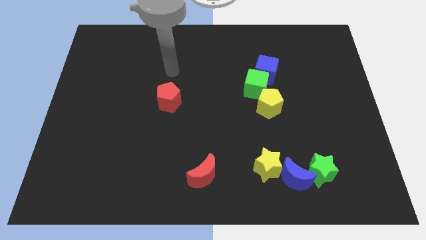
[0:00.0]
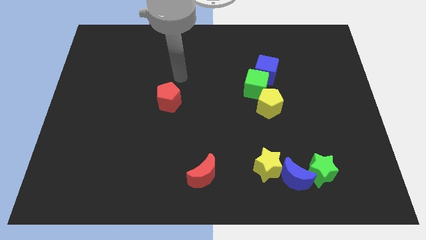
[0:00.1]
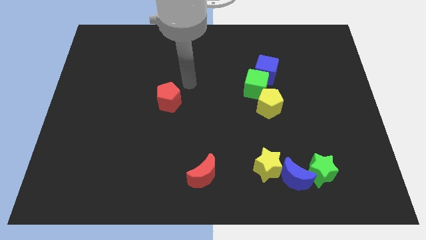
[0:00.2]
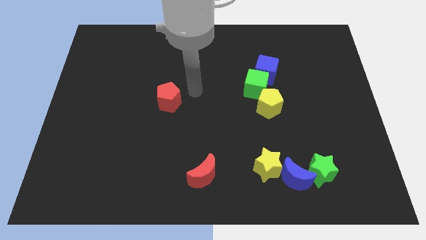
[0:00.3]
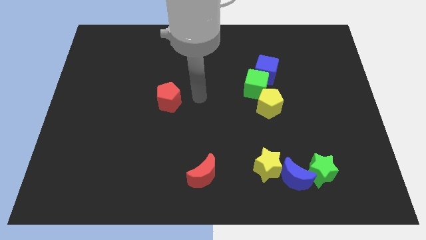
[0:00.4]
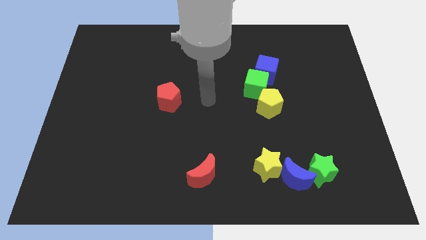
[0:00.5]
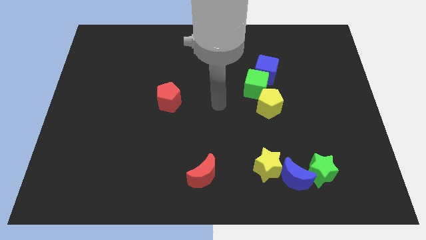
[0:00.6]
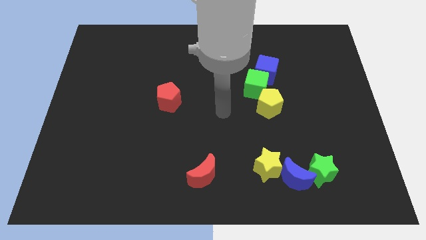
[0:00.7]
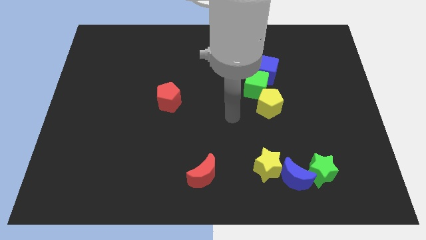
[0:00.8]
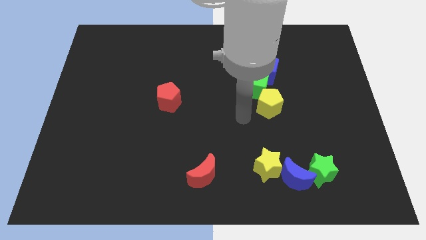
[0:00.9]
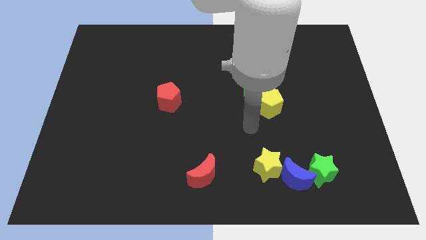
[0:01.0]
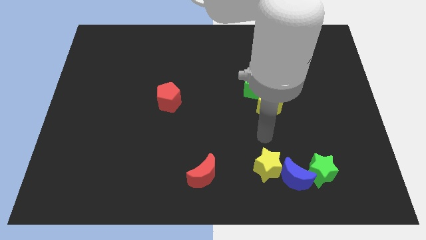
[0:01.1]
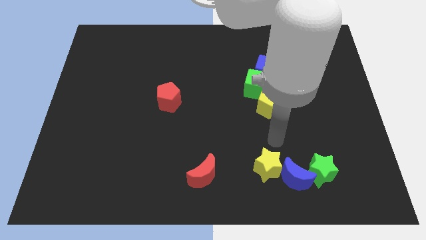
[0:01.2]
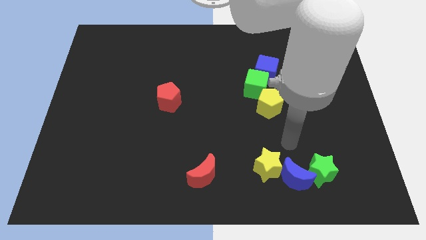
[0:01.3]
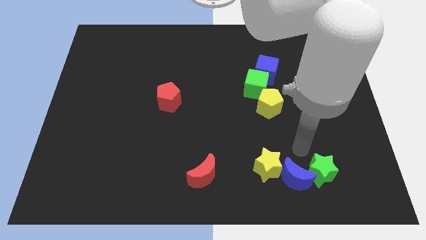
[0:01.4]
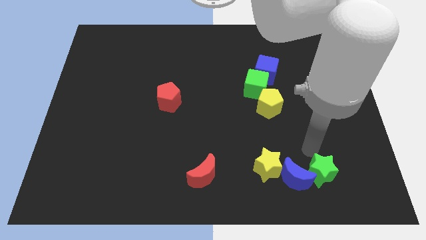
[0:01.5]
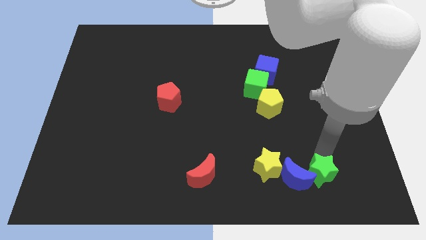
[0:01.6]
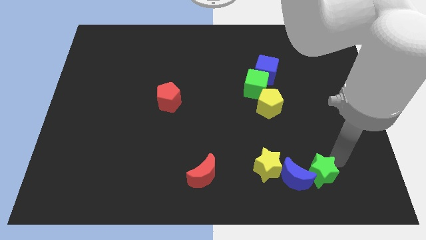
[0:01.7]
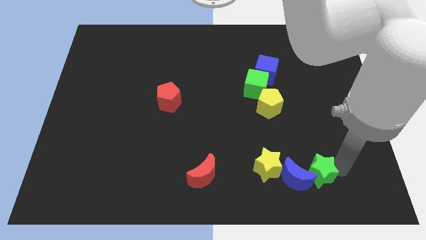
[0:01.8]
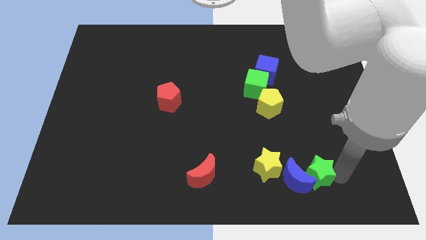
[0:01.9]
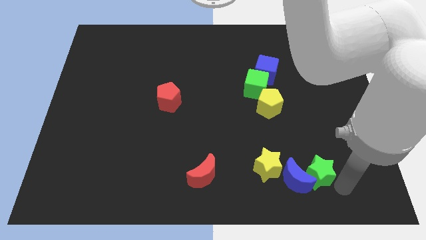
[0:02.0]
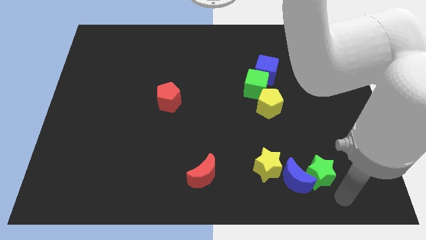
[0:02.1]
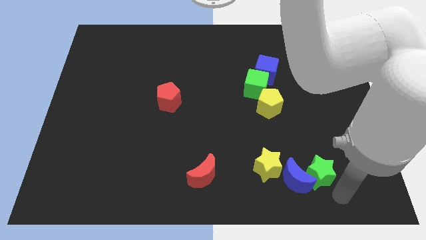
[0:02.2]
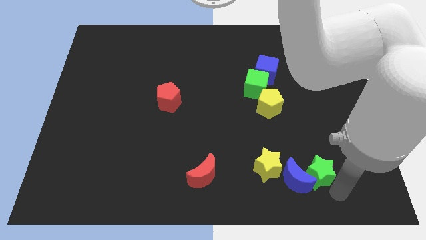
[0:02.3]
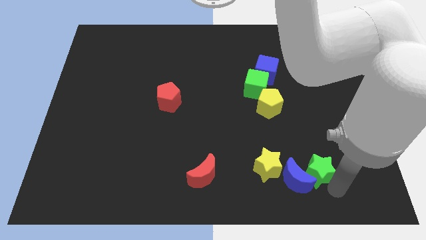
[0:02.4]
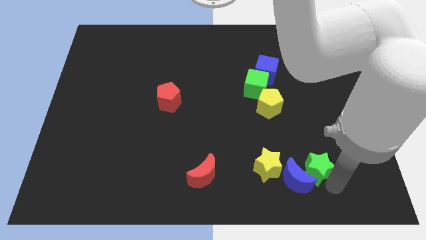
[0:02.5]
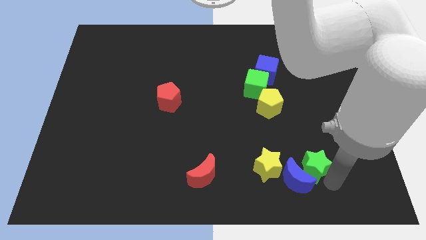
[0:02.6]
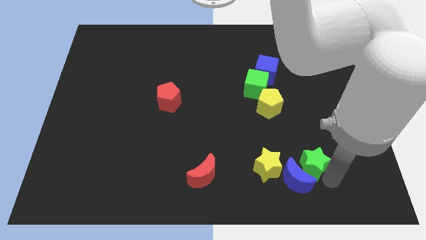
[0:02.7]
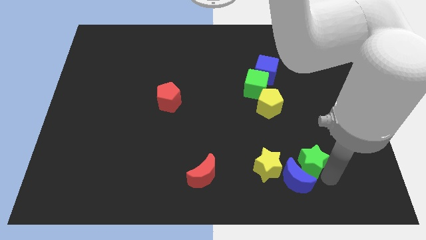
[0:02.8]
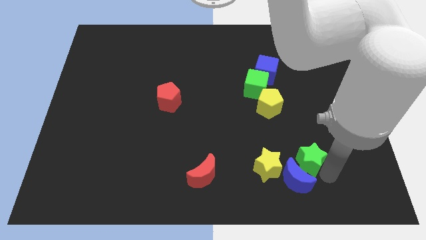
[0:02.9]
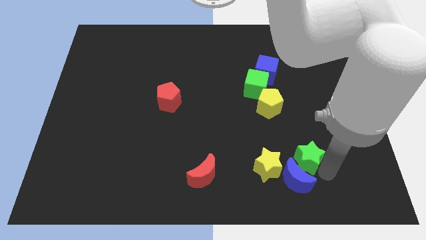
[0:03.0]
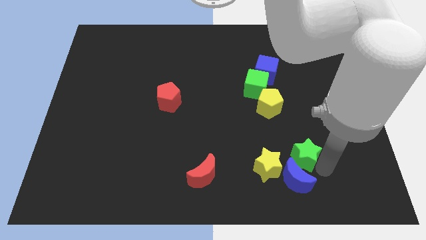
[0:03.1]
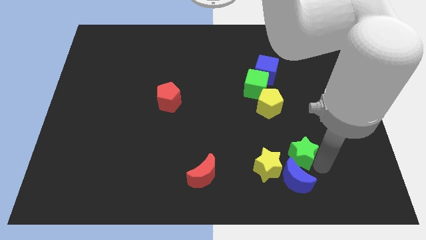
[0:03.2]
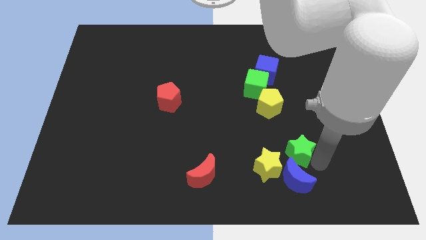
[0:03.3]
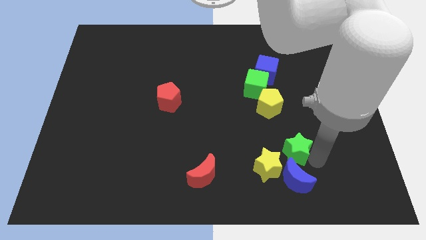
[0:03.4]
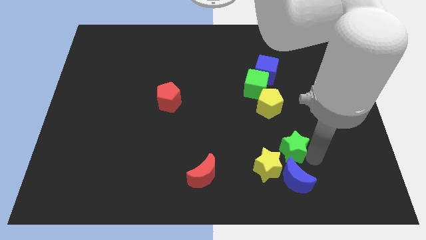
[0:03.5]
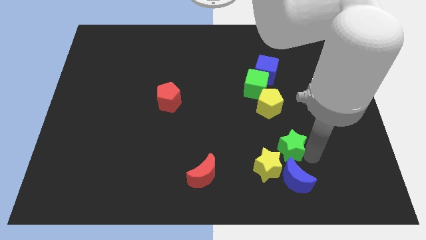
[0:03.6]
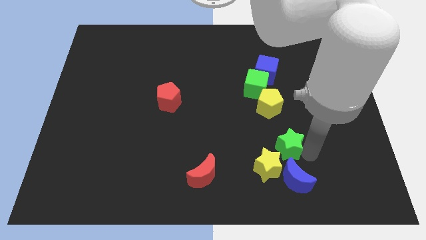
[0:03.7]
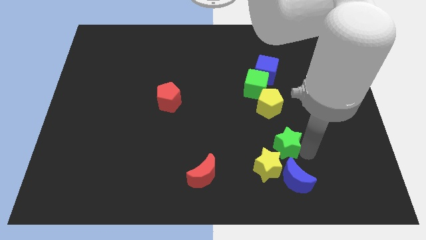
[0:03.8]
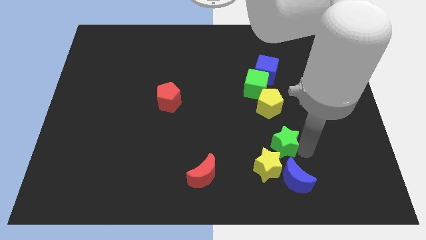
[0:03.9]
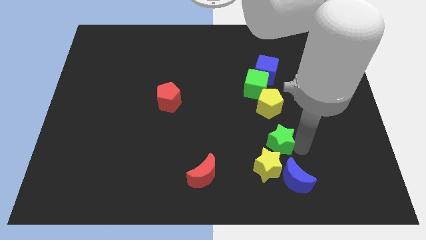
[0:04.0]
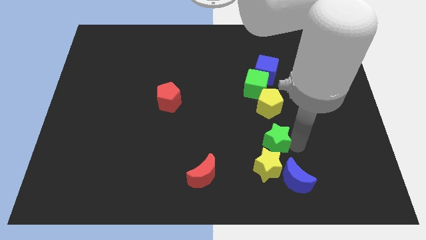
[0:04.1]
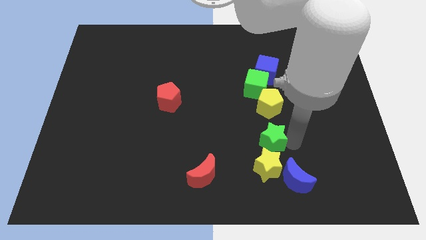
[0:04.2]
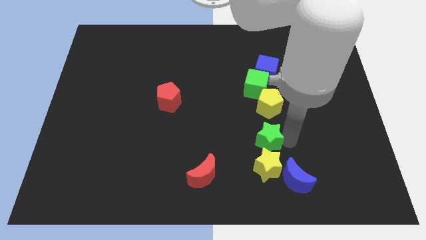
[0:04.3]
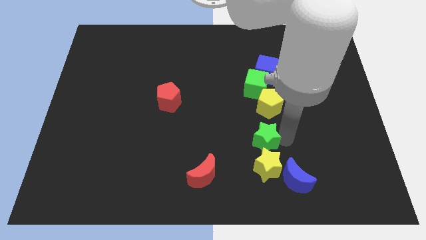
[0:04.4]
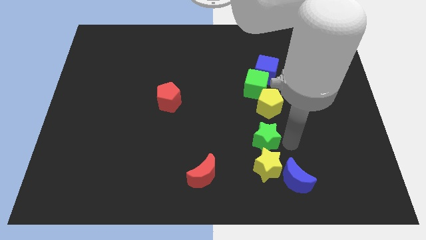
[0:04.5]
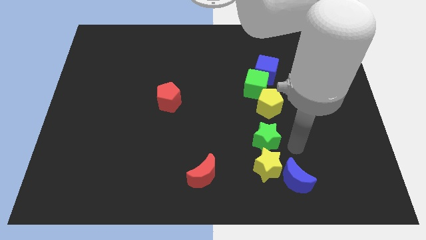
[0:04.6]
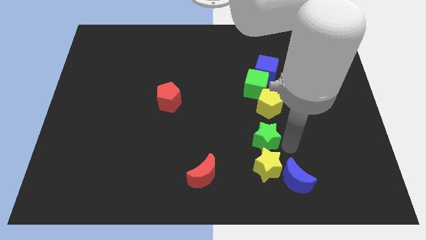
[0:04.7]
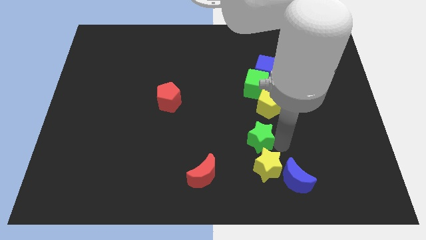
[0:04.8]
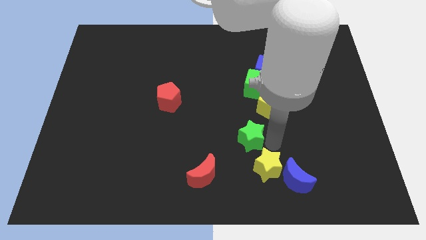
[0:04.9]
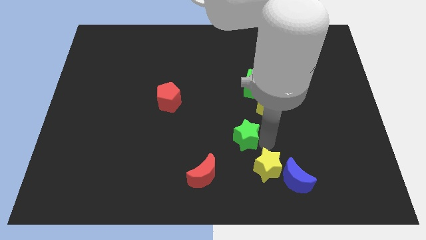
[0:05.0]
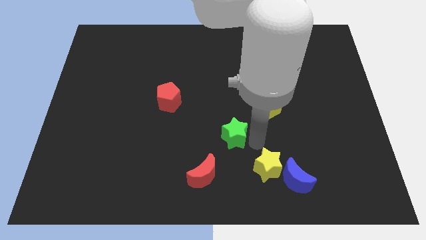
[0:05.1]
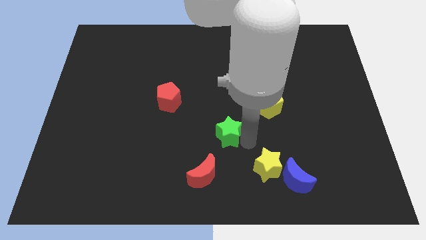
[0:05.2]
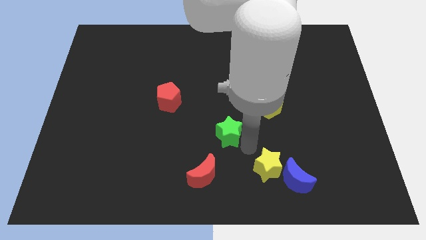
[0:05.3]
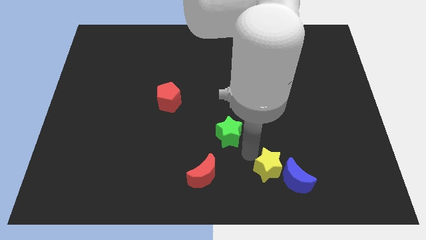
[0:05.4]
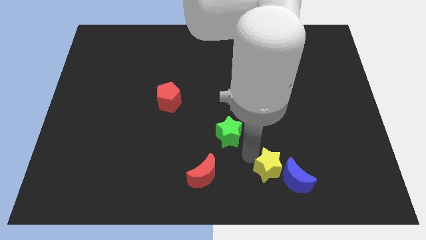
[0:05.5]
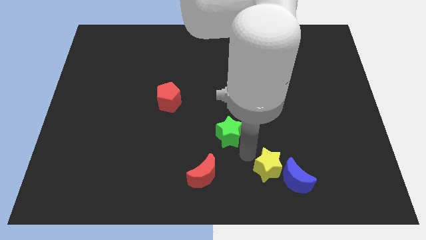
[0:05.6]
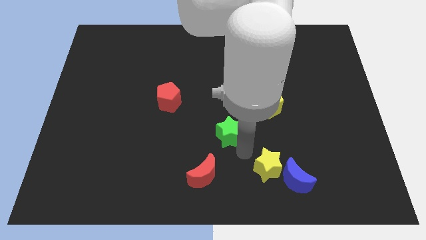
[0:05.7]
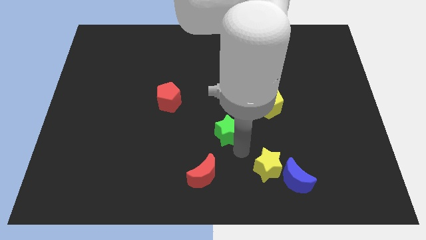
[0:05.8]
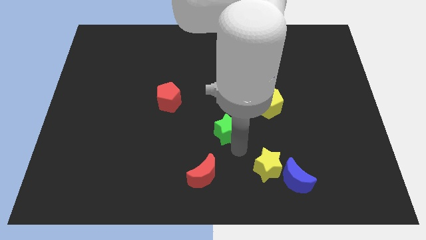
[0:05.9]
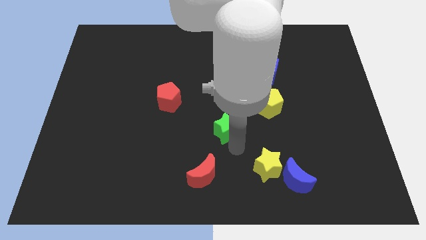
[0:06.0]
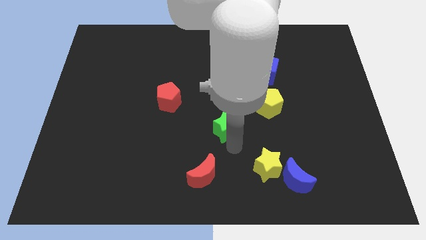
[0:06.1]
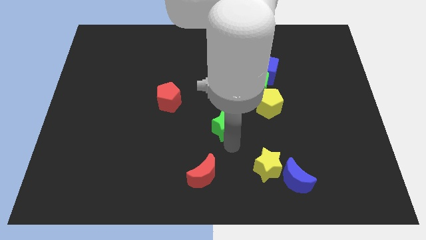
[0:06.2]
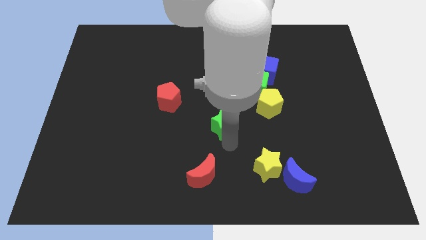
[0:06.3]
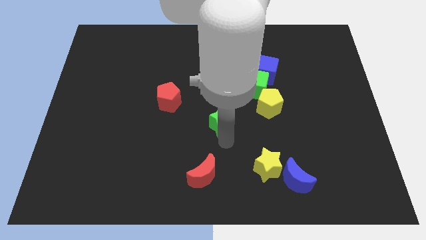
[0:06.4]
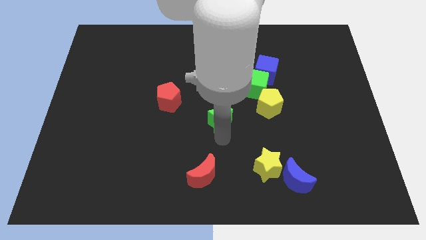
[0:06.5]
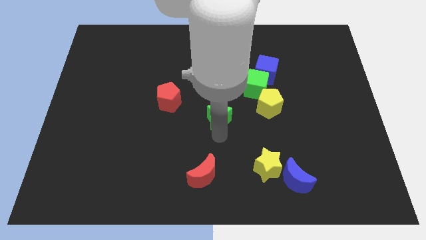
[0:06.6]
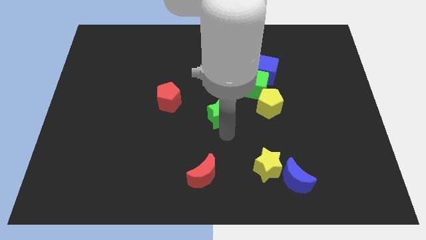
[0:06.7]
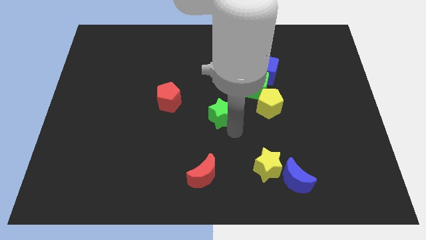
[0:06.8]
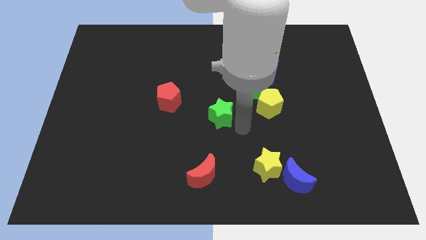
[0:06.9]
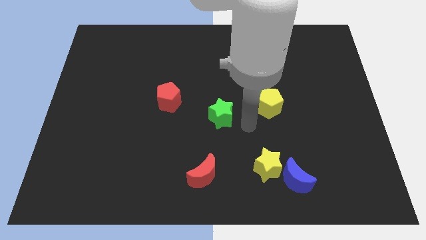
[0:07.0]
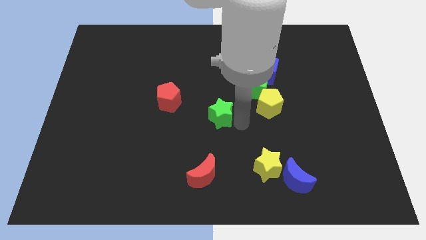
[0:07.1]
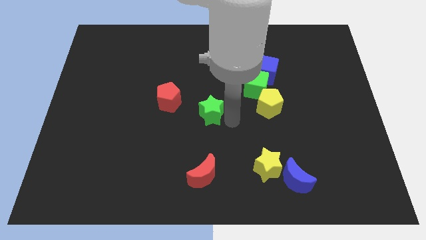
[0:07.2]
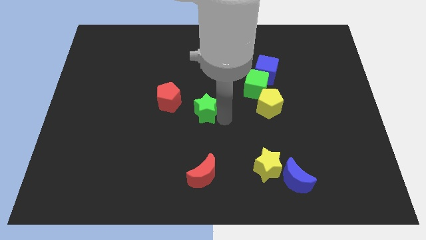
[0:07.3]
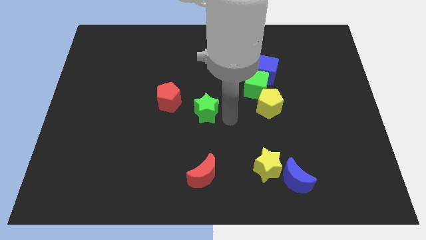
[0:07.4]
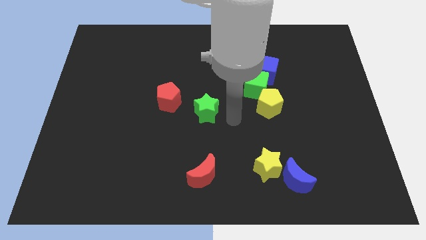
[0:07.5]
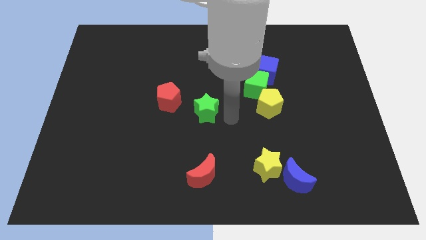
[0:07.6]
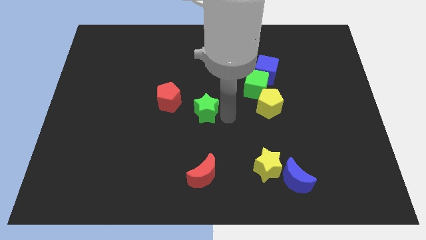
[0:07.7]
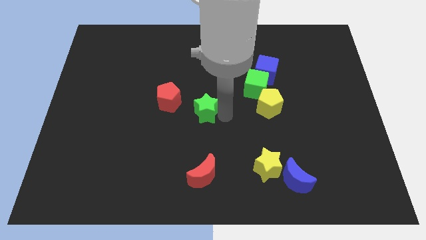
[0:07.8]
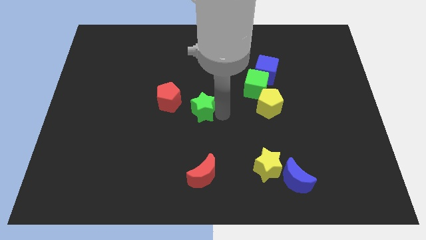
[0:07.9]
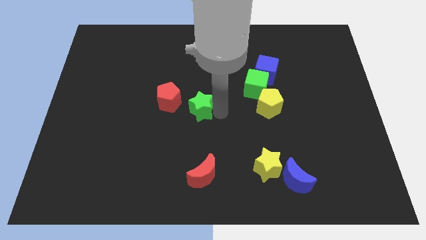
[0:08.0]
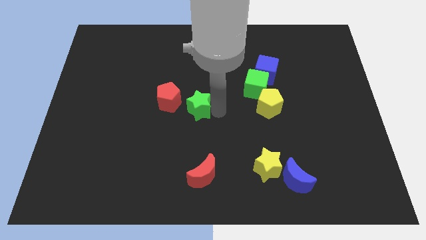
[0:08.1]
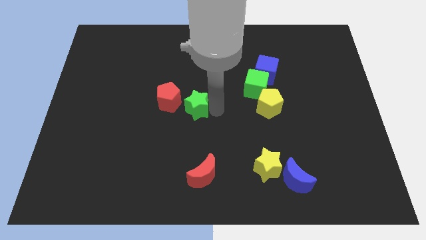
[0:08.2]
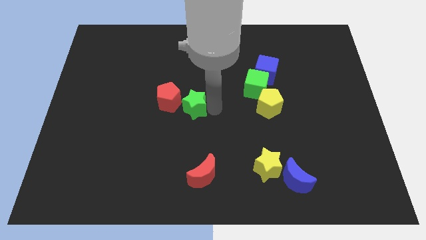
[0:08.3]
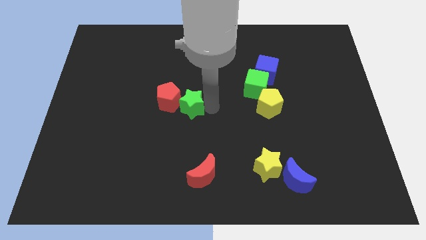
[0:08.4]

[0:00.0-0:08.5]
push the green star to the red pentagon
